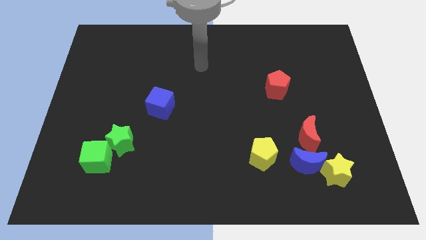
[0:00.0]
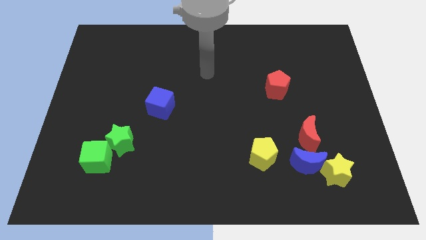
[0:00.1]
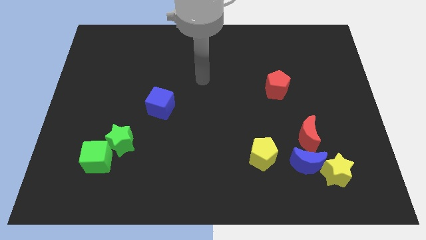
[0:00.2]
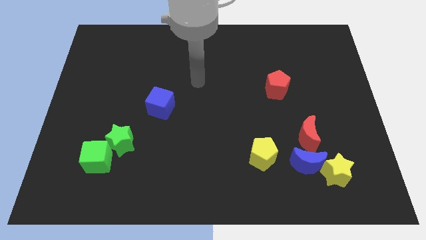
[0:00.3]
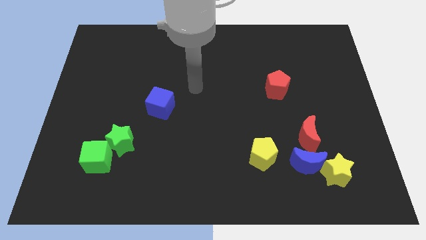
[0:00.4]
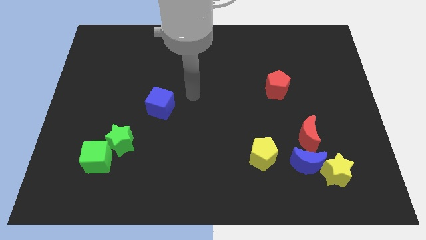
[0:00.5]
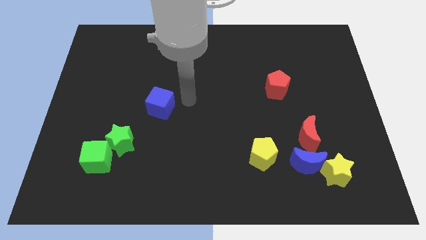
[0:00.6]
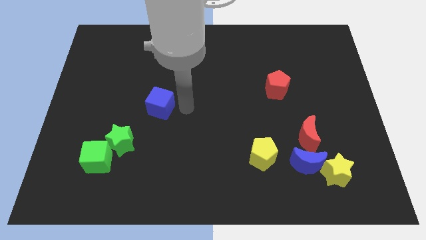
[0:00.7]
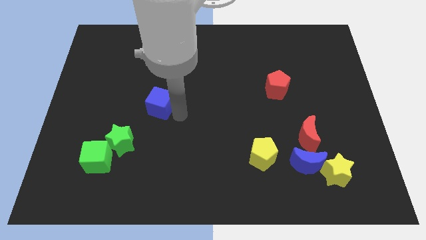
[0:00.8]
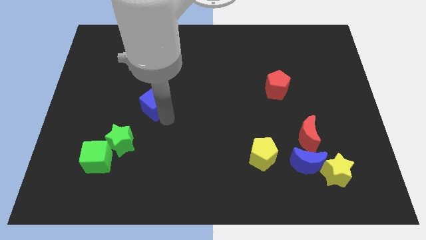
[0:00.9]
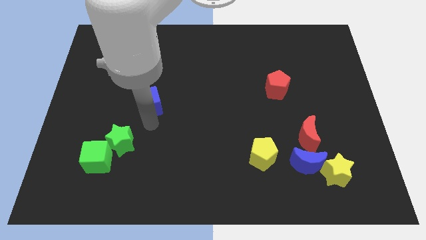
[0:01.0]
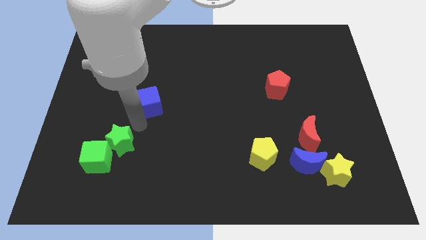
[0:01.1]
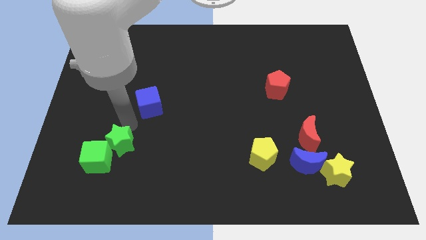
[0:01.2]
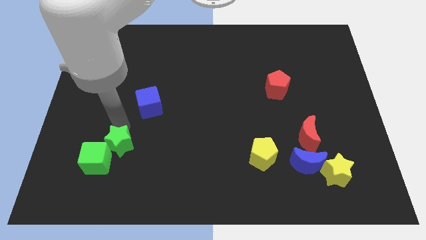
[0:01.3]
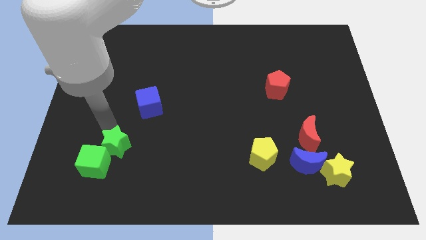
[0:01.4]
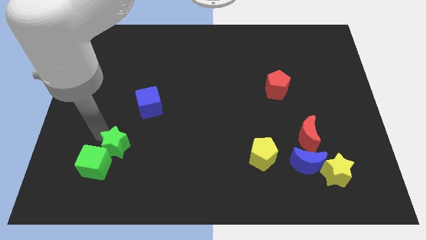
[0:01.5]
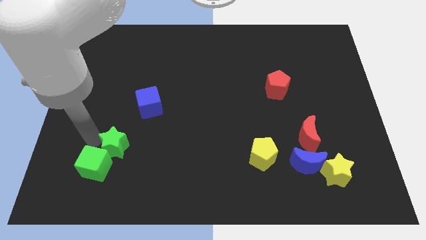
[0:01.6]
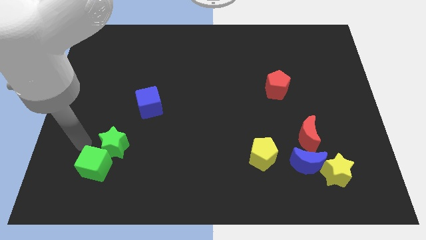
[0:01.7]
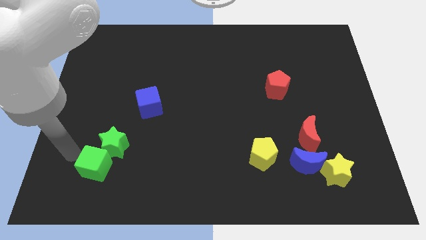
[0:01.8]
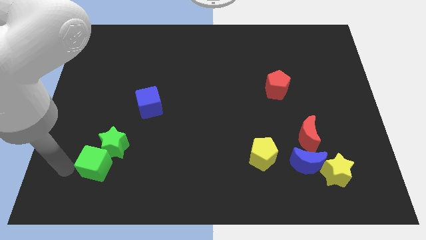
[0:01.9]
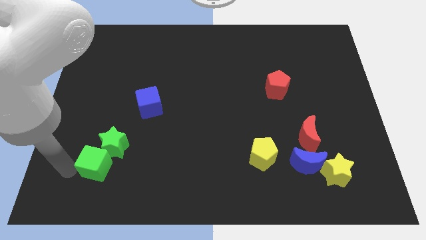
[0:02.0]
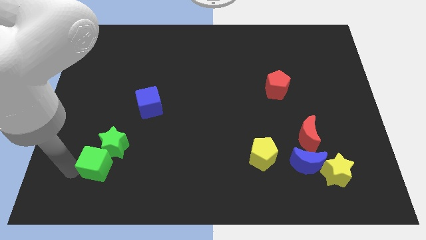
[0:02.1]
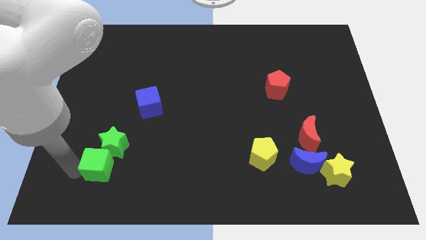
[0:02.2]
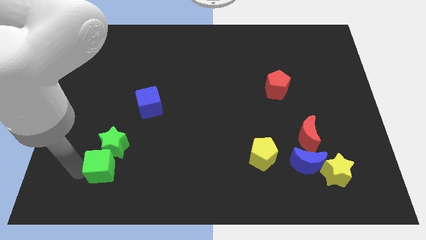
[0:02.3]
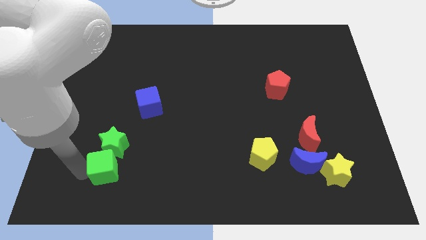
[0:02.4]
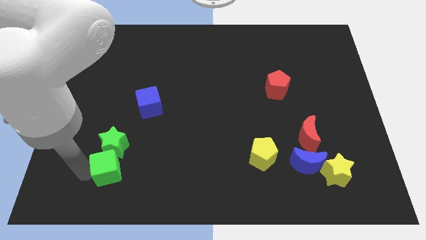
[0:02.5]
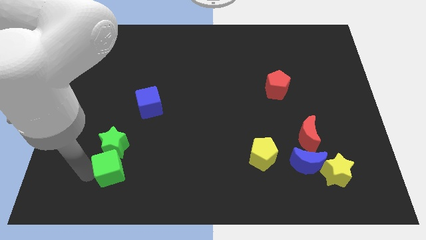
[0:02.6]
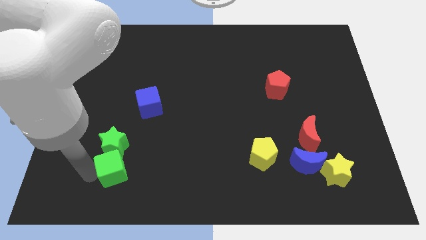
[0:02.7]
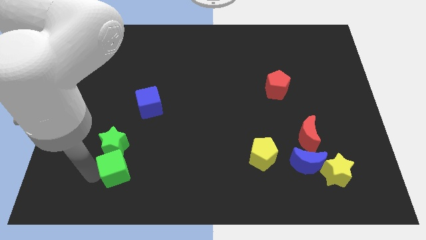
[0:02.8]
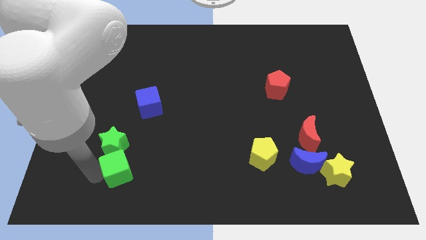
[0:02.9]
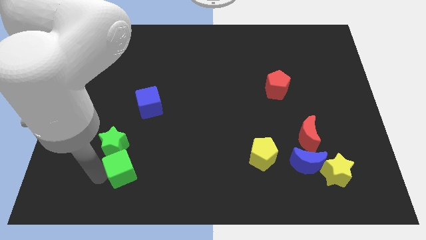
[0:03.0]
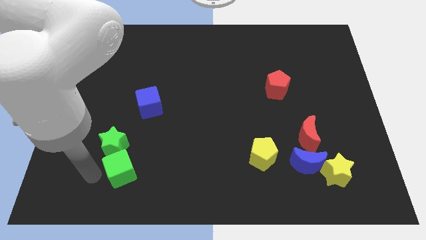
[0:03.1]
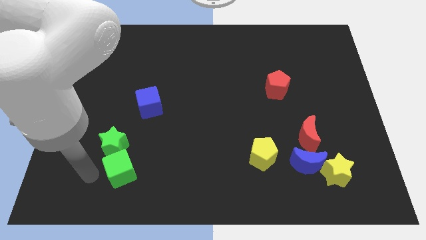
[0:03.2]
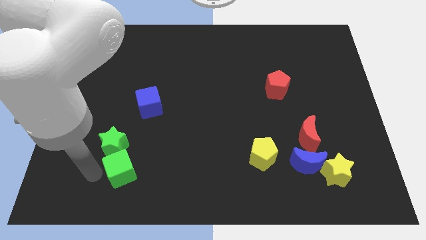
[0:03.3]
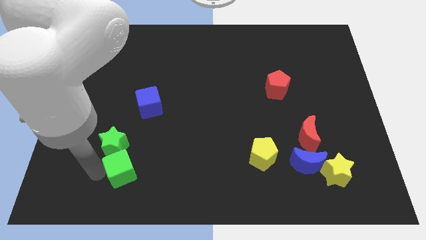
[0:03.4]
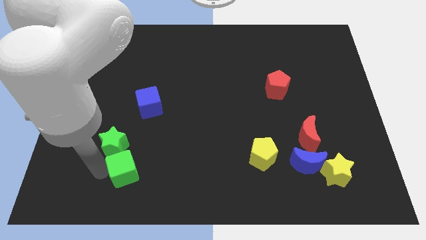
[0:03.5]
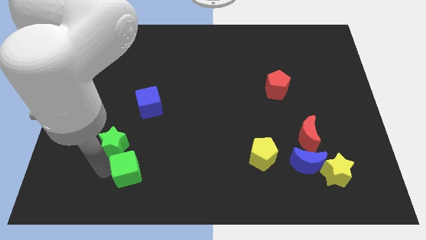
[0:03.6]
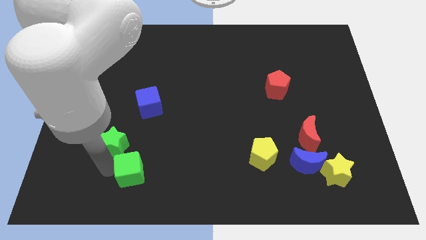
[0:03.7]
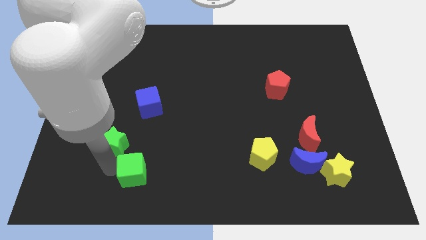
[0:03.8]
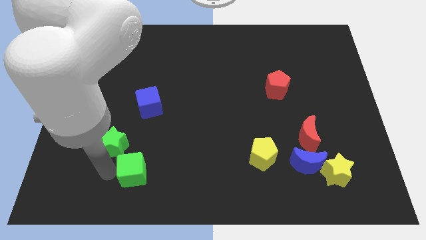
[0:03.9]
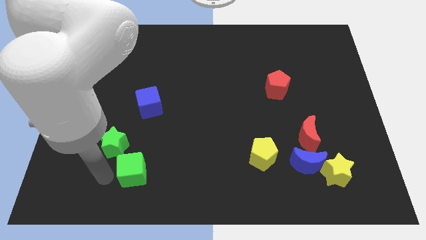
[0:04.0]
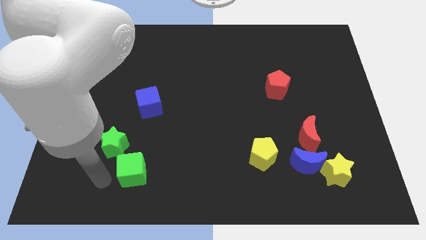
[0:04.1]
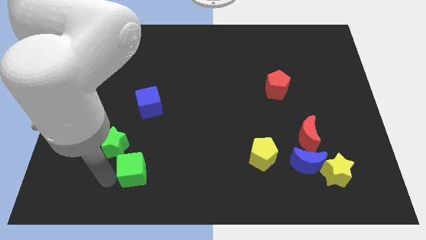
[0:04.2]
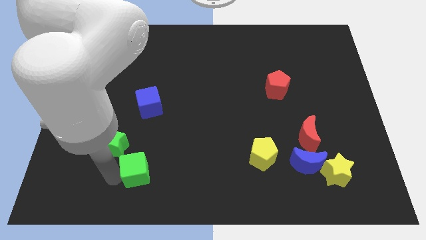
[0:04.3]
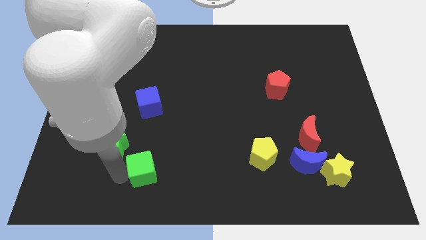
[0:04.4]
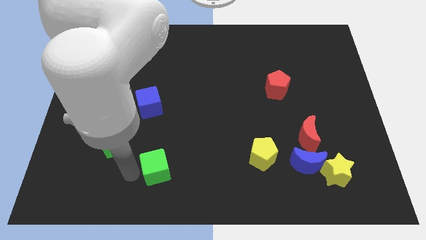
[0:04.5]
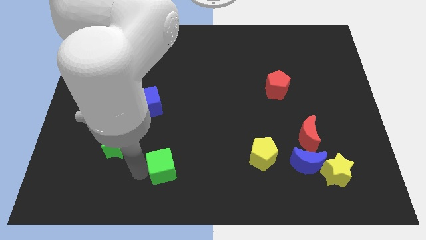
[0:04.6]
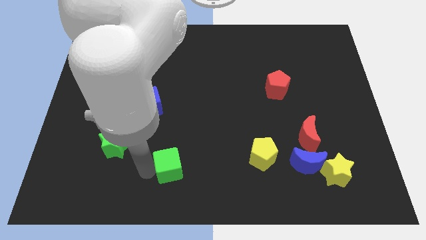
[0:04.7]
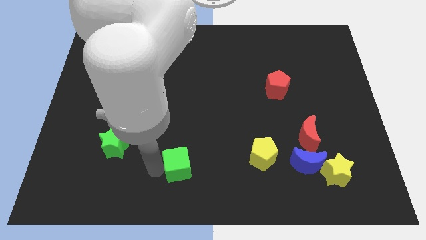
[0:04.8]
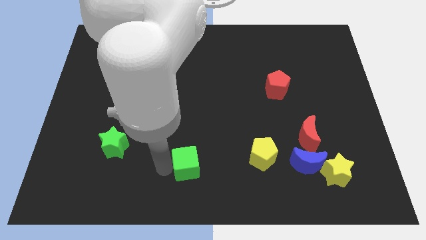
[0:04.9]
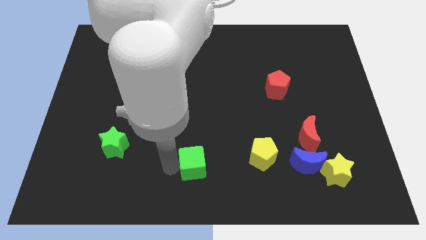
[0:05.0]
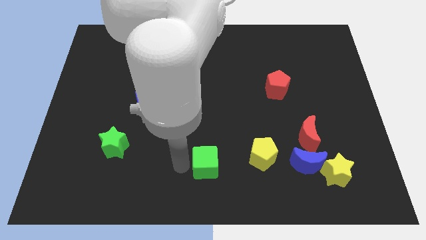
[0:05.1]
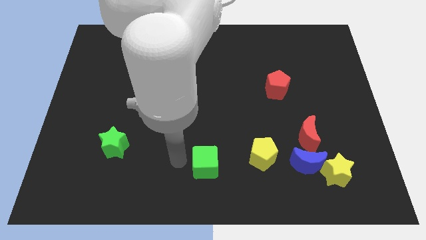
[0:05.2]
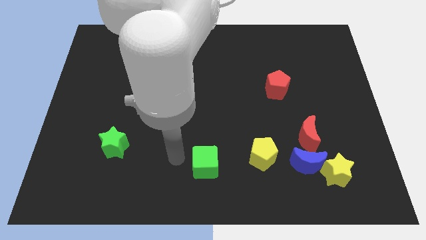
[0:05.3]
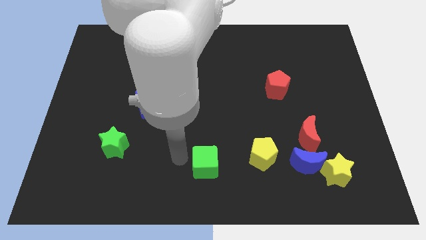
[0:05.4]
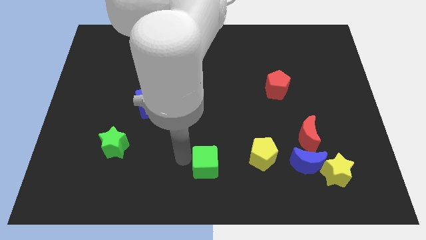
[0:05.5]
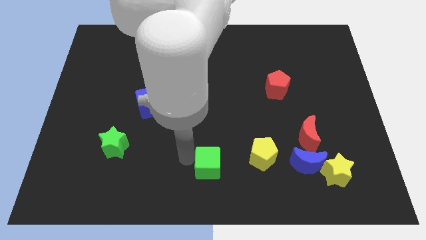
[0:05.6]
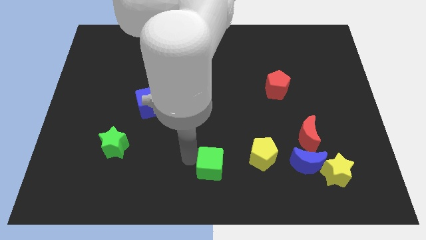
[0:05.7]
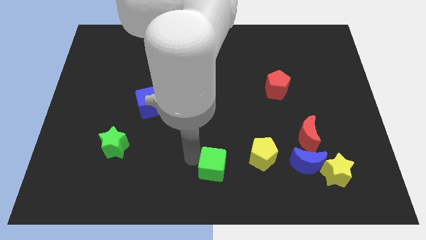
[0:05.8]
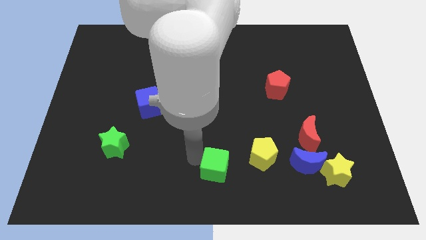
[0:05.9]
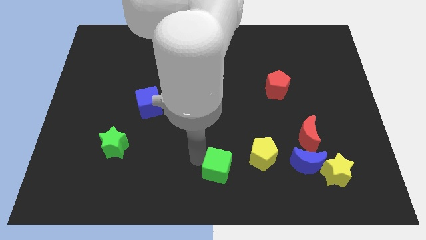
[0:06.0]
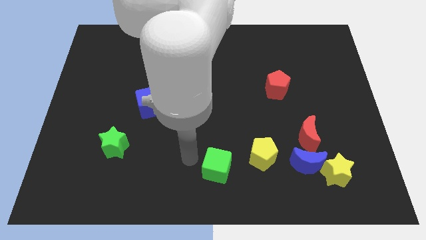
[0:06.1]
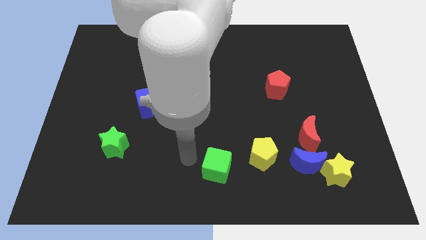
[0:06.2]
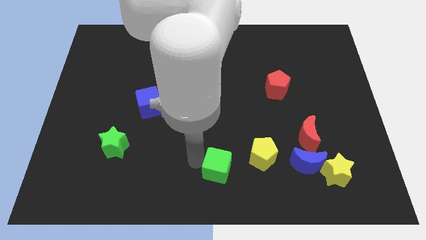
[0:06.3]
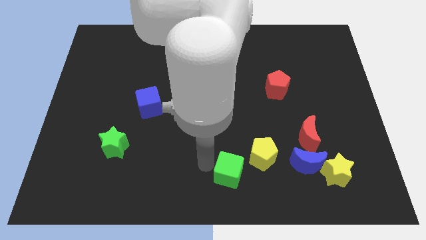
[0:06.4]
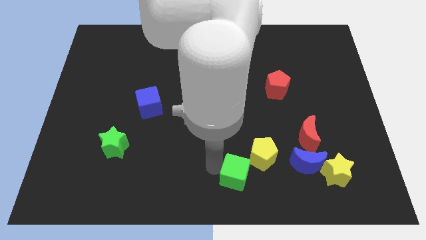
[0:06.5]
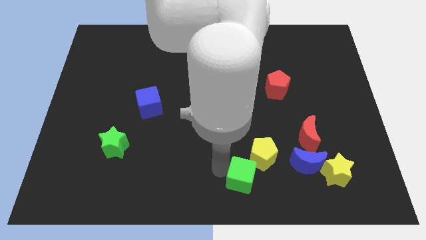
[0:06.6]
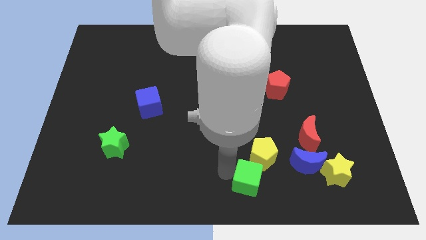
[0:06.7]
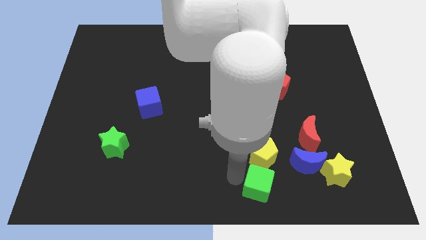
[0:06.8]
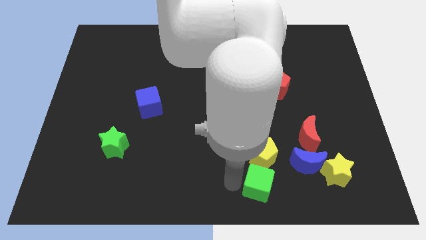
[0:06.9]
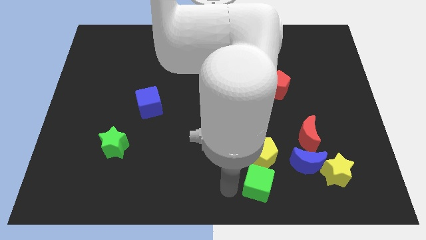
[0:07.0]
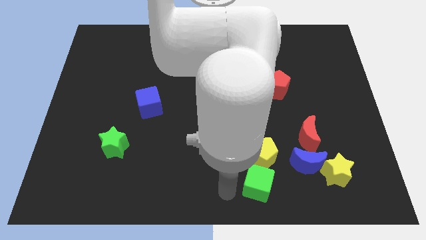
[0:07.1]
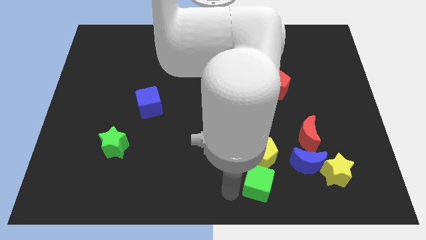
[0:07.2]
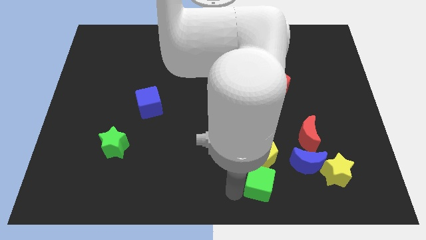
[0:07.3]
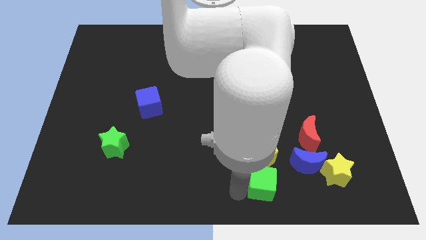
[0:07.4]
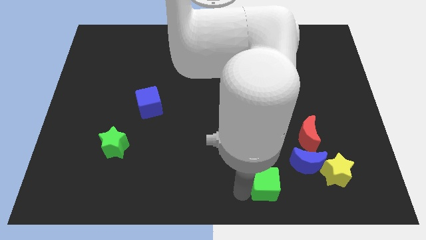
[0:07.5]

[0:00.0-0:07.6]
move the green cube diagonally down and to the right of the yellow pentagon

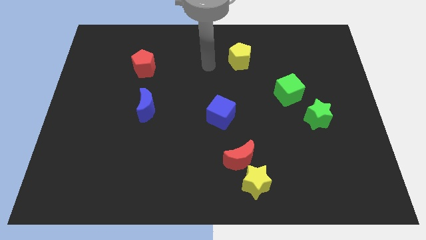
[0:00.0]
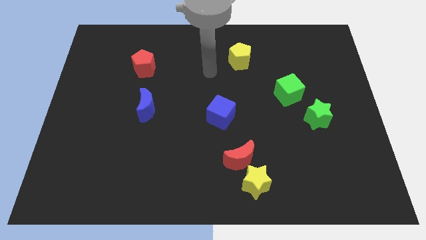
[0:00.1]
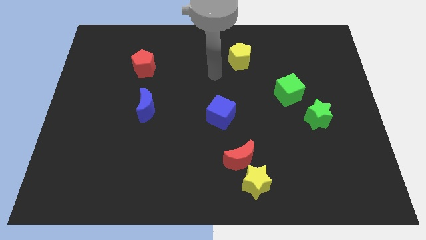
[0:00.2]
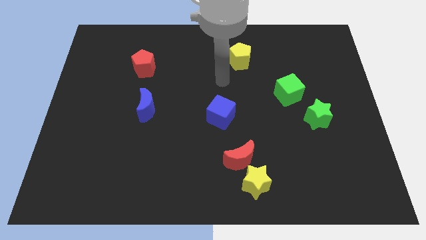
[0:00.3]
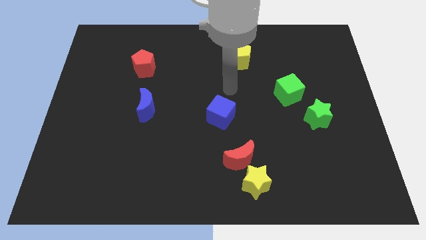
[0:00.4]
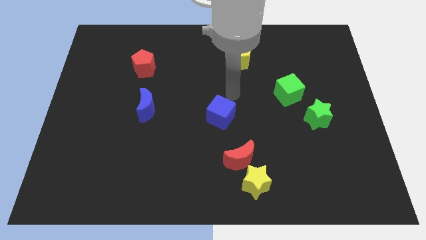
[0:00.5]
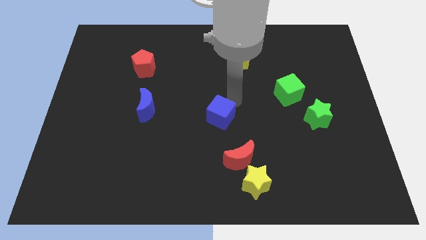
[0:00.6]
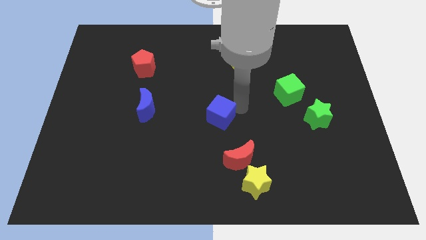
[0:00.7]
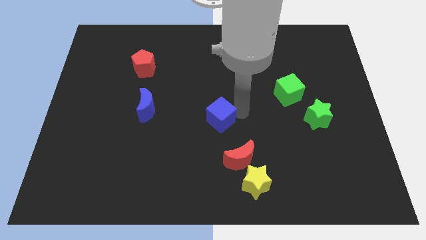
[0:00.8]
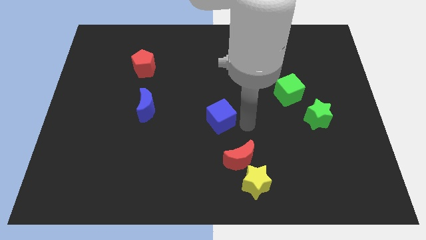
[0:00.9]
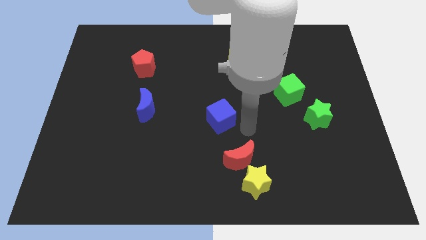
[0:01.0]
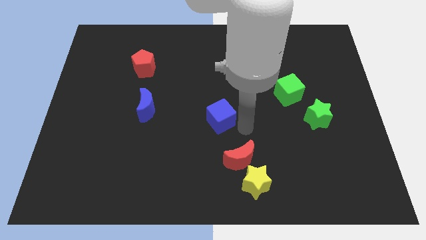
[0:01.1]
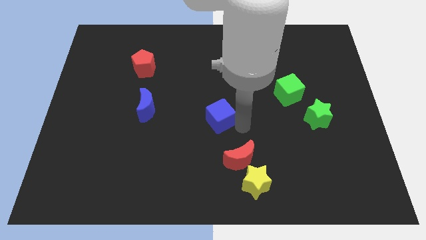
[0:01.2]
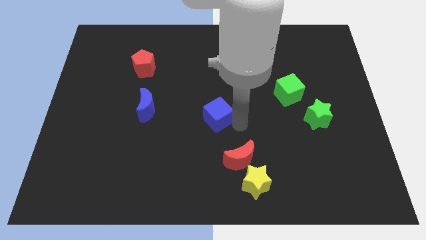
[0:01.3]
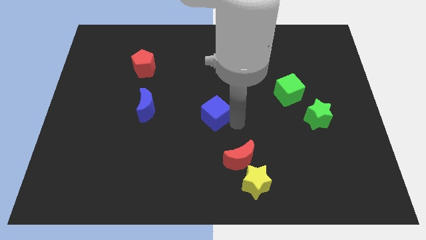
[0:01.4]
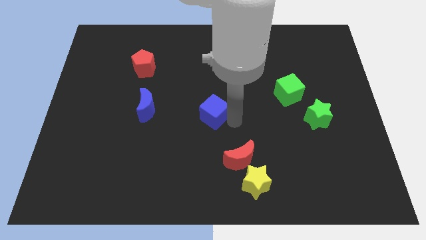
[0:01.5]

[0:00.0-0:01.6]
push the blue cube right of the blue moon
